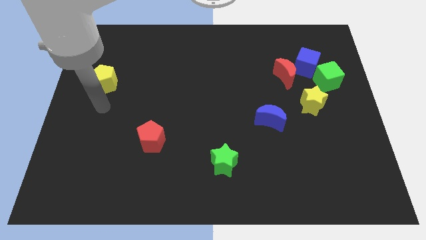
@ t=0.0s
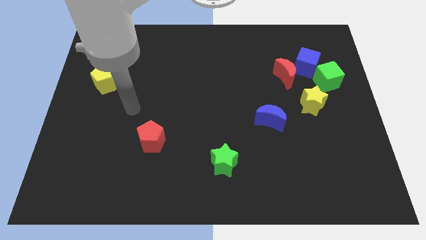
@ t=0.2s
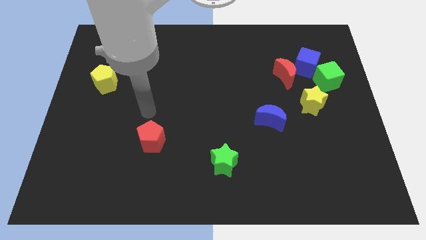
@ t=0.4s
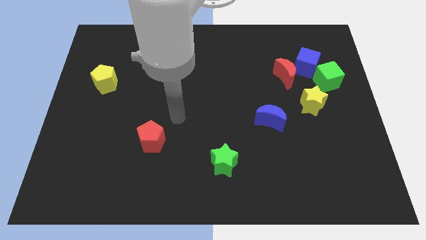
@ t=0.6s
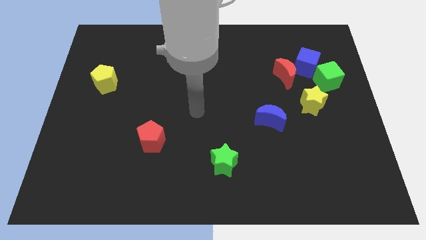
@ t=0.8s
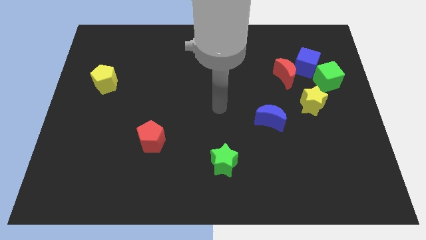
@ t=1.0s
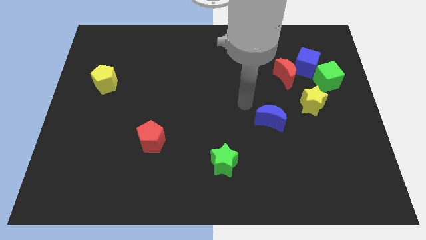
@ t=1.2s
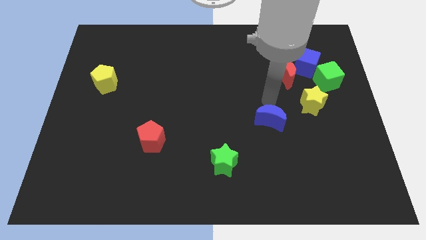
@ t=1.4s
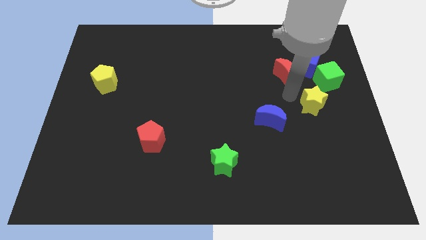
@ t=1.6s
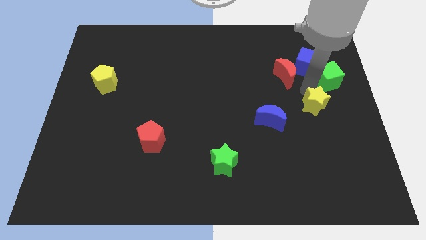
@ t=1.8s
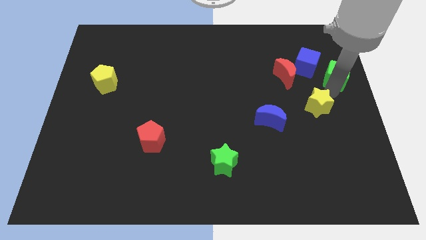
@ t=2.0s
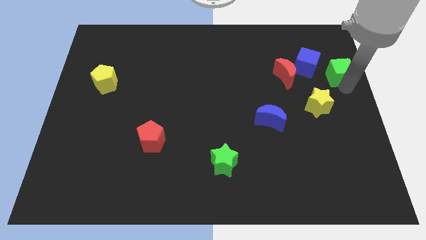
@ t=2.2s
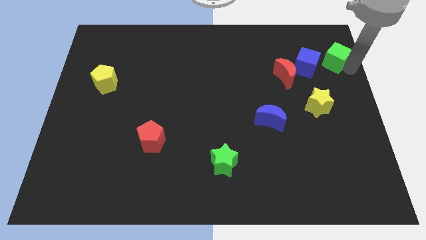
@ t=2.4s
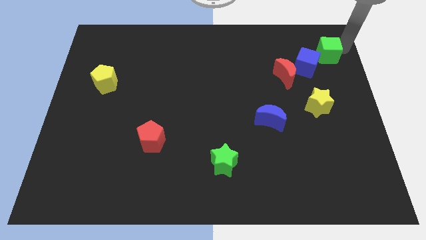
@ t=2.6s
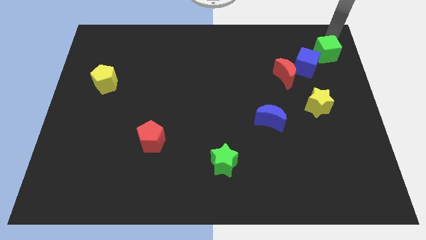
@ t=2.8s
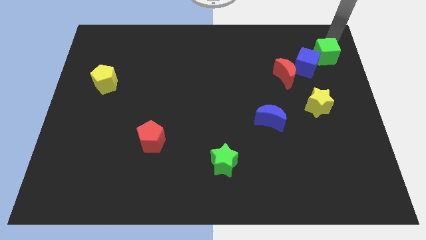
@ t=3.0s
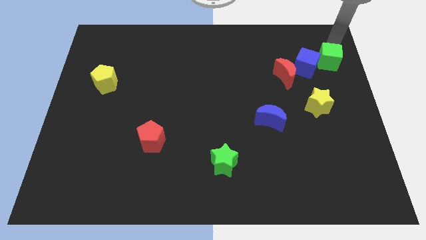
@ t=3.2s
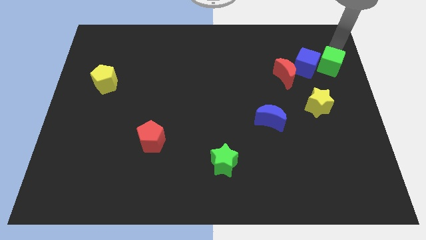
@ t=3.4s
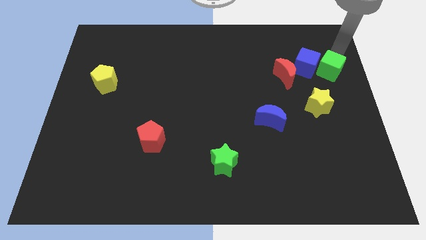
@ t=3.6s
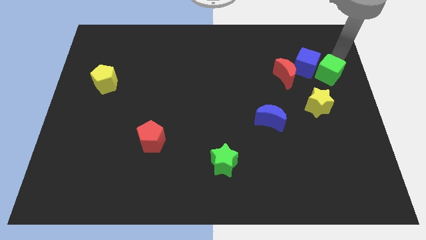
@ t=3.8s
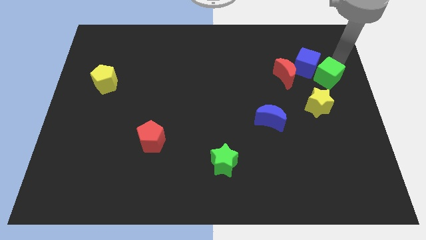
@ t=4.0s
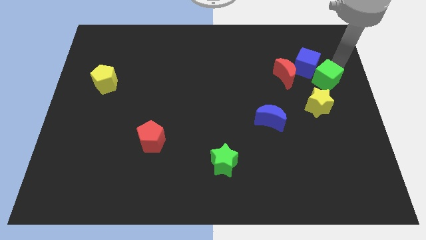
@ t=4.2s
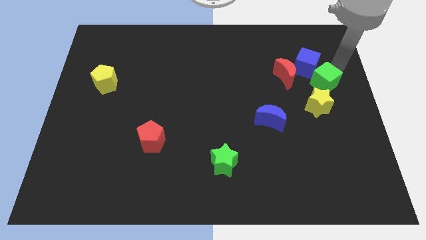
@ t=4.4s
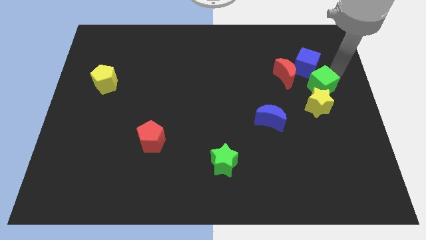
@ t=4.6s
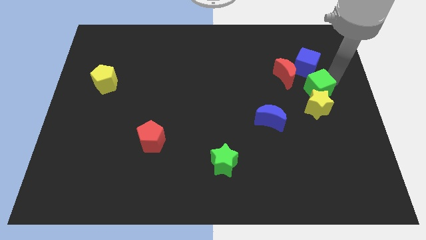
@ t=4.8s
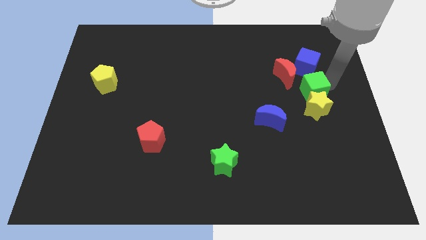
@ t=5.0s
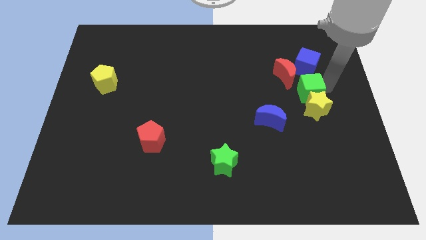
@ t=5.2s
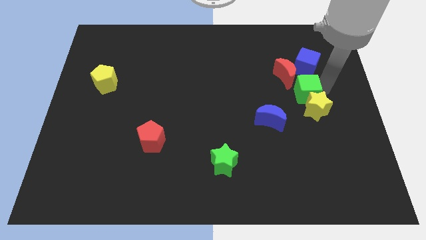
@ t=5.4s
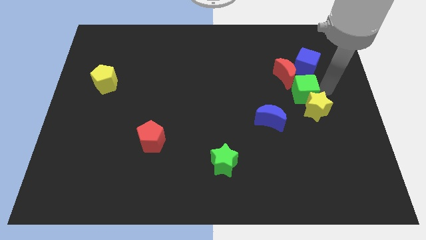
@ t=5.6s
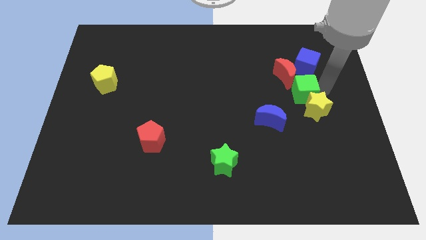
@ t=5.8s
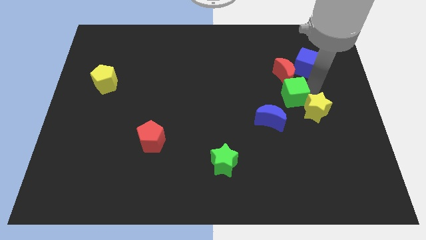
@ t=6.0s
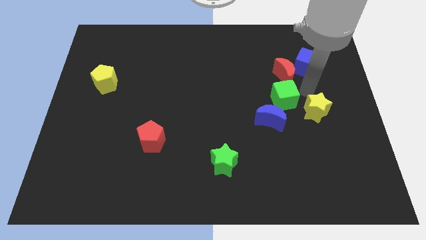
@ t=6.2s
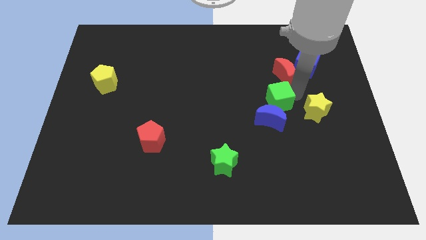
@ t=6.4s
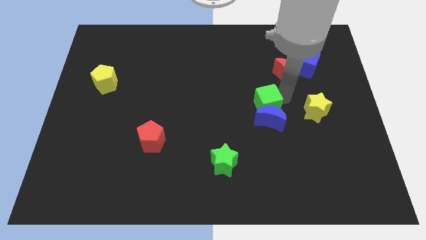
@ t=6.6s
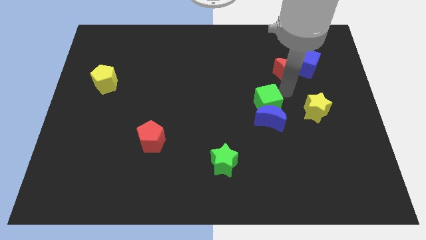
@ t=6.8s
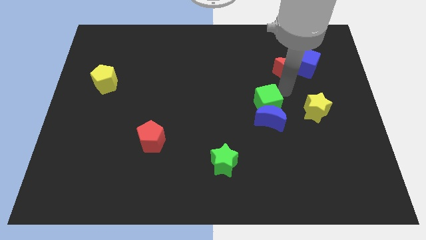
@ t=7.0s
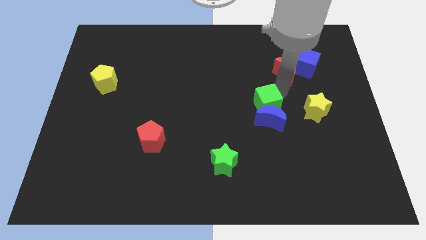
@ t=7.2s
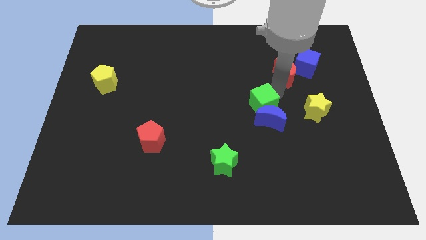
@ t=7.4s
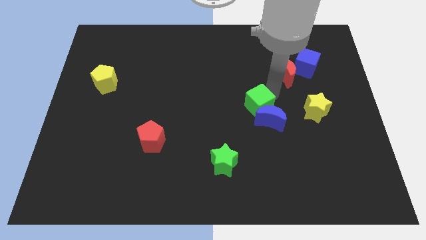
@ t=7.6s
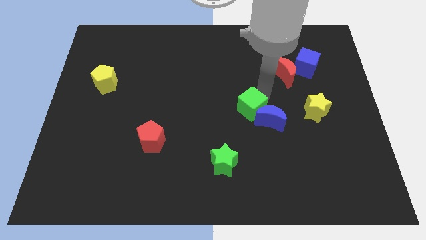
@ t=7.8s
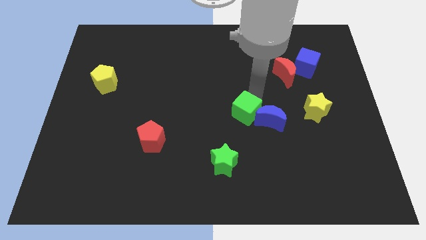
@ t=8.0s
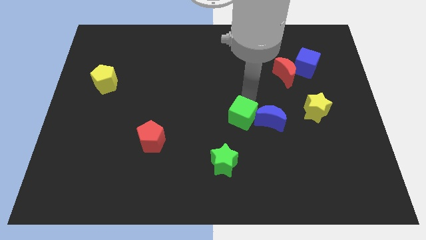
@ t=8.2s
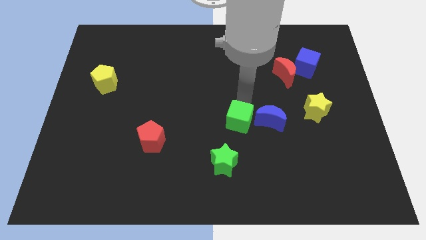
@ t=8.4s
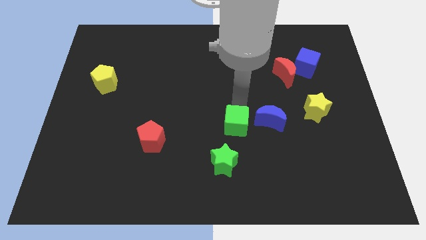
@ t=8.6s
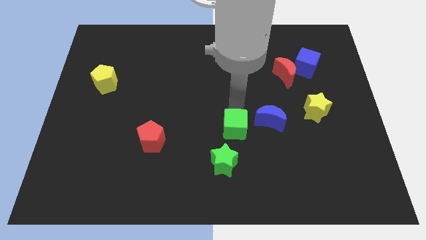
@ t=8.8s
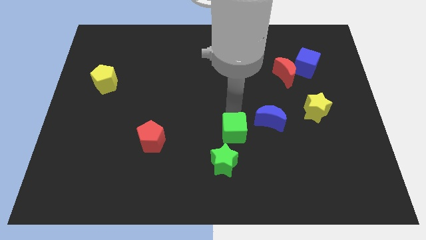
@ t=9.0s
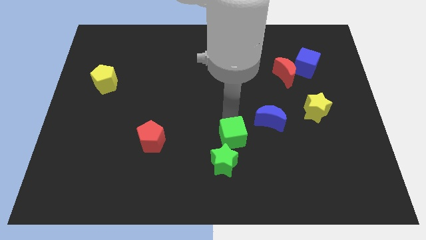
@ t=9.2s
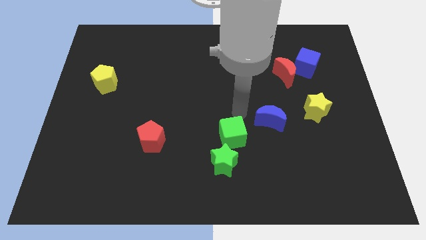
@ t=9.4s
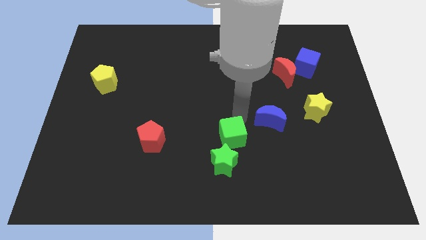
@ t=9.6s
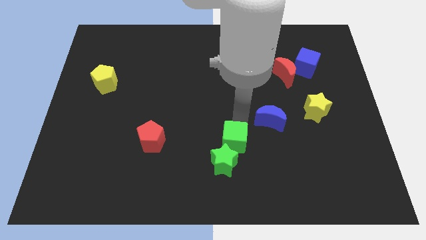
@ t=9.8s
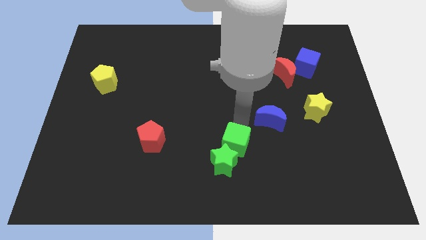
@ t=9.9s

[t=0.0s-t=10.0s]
put the green cube next to the green star

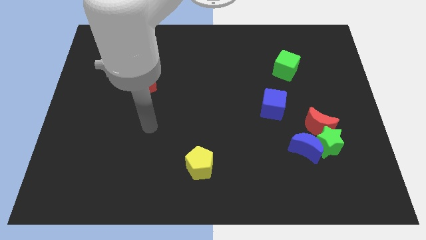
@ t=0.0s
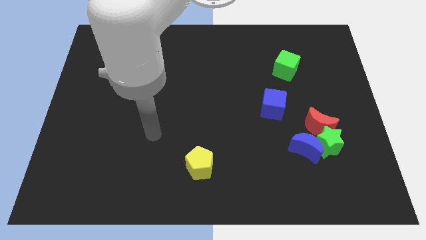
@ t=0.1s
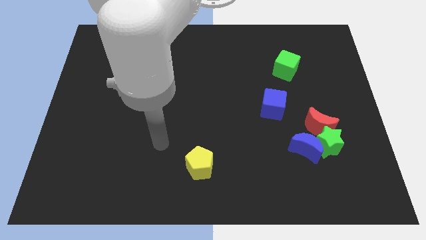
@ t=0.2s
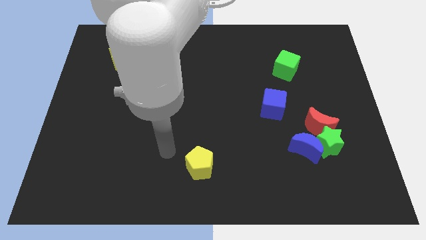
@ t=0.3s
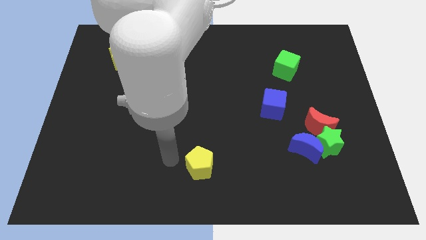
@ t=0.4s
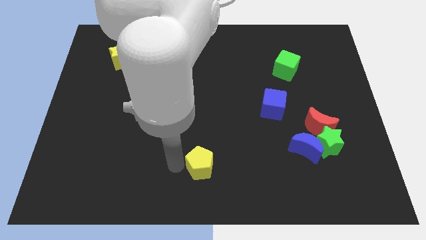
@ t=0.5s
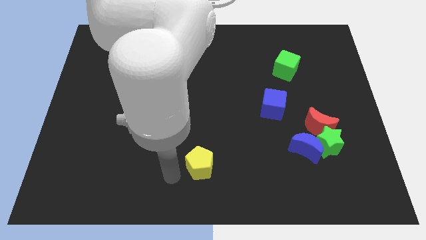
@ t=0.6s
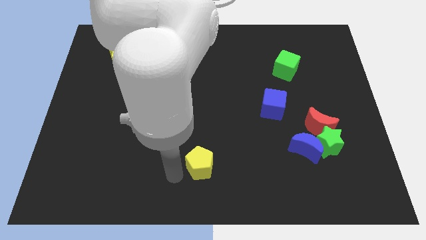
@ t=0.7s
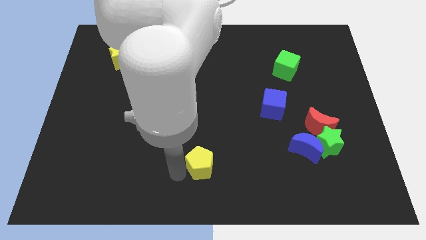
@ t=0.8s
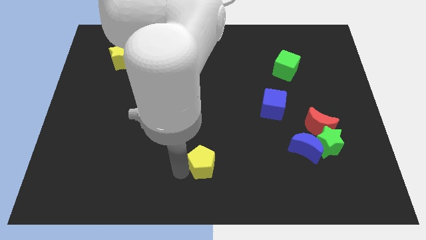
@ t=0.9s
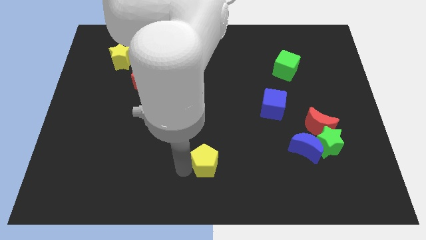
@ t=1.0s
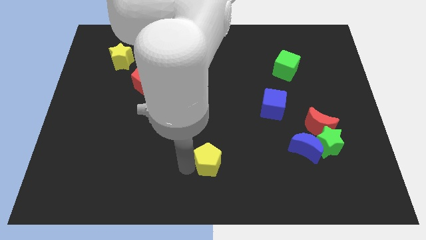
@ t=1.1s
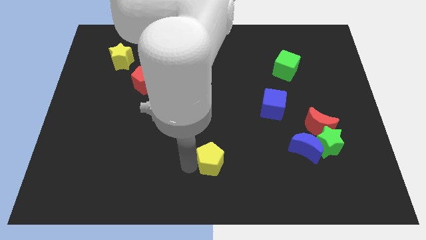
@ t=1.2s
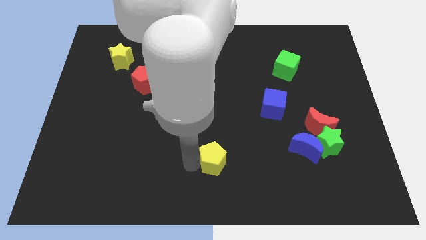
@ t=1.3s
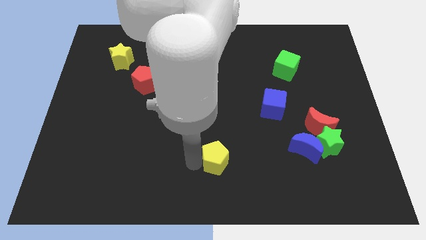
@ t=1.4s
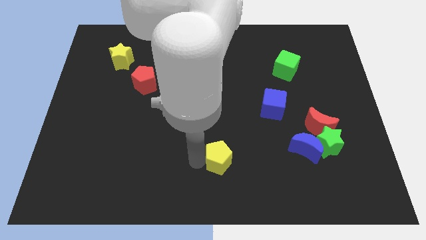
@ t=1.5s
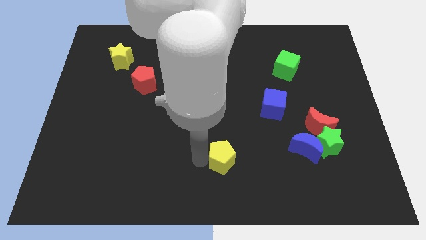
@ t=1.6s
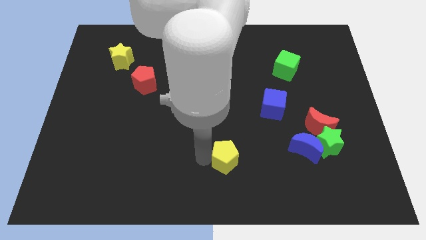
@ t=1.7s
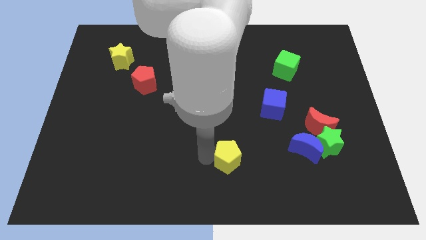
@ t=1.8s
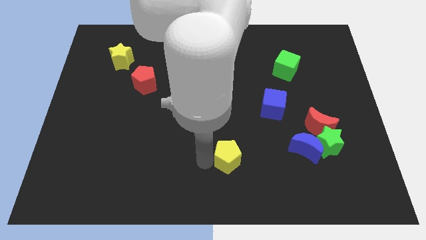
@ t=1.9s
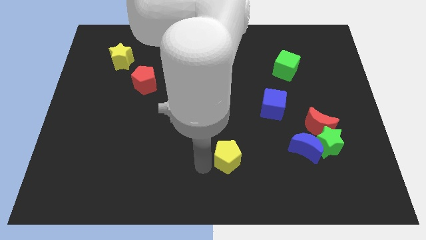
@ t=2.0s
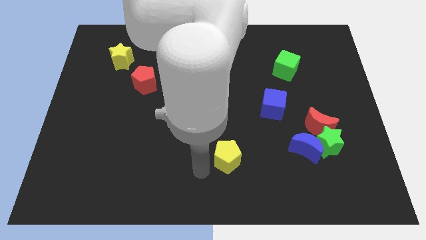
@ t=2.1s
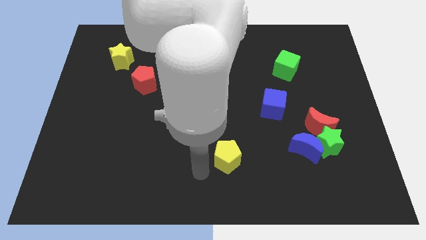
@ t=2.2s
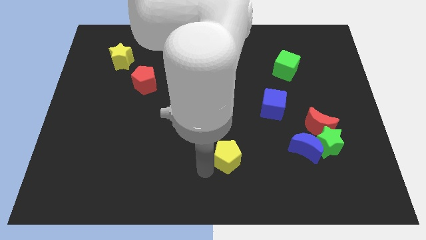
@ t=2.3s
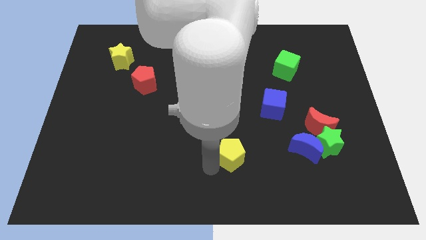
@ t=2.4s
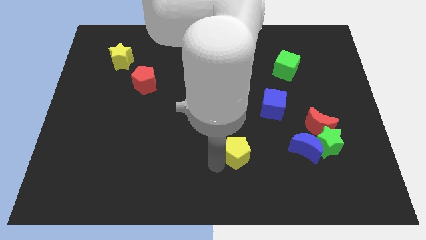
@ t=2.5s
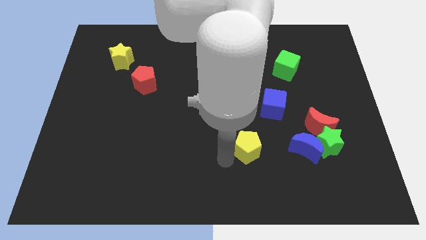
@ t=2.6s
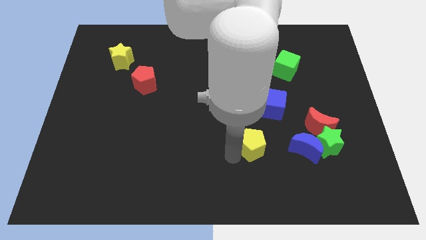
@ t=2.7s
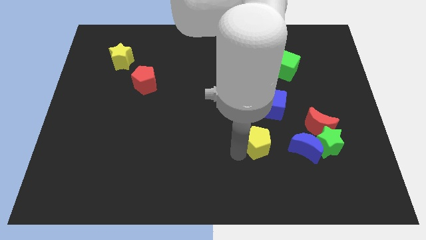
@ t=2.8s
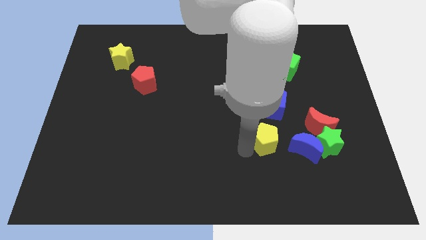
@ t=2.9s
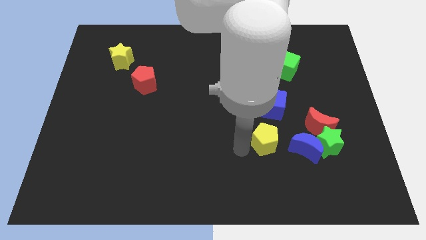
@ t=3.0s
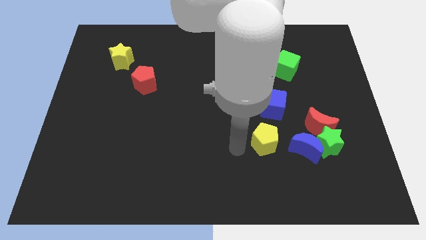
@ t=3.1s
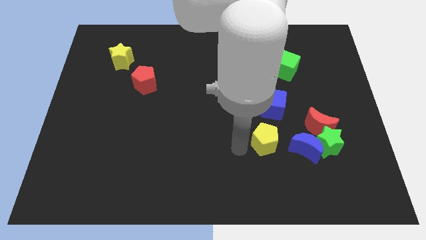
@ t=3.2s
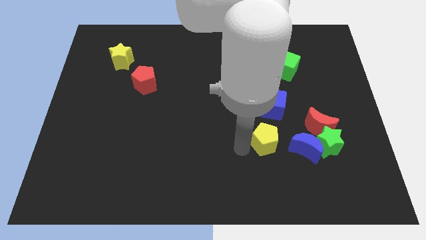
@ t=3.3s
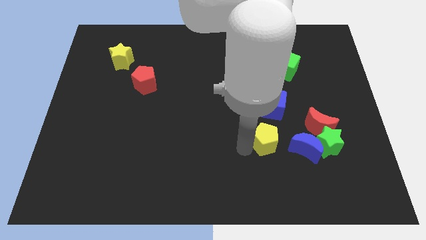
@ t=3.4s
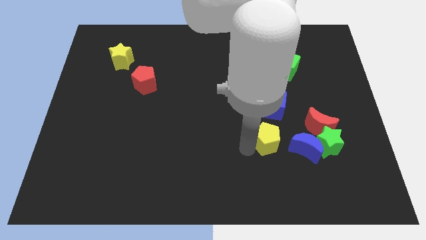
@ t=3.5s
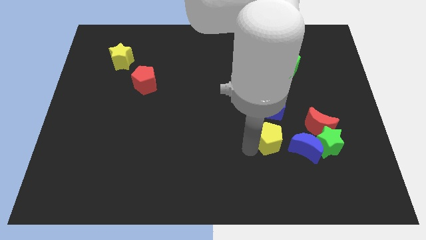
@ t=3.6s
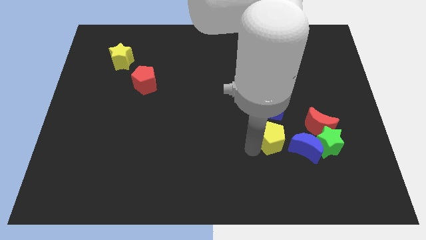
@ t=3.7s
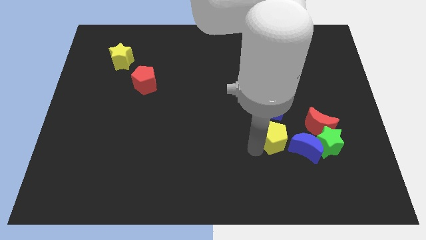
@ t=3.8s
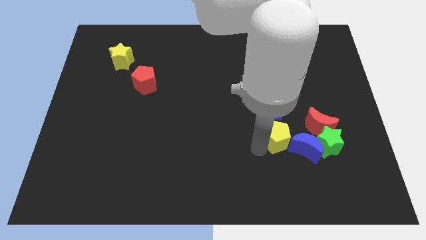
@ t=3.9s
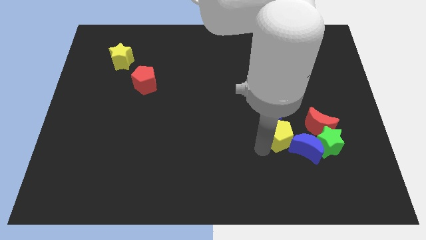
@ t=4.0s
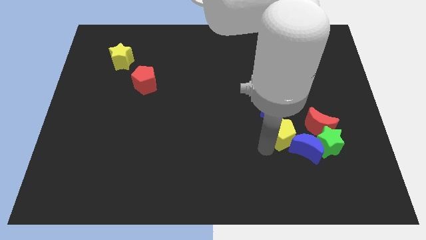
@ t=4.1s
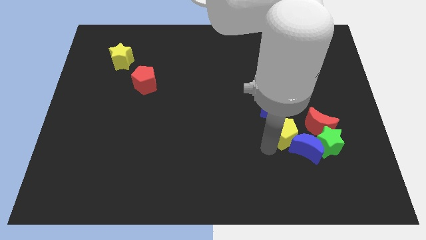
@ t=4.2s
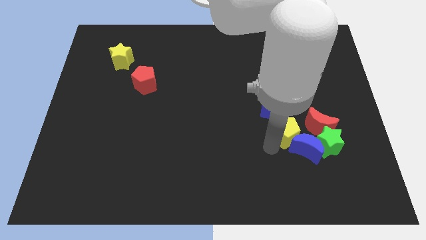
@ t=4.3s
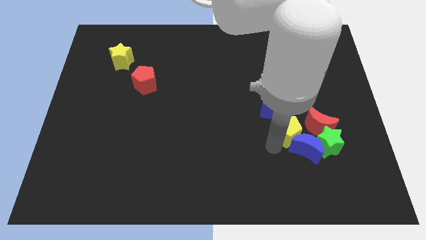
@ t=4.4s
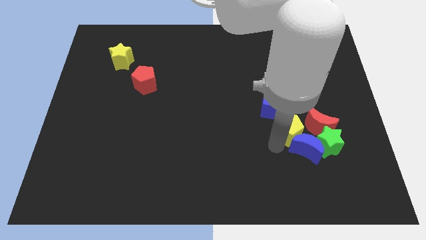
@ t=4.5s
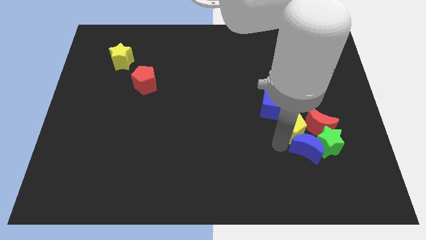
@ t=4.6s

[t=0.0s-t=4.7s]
put the yellow pentagon close to the red moon
